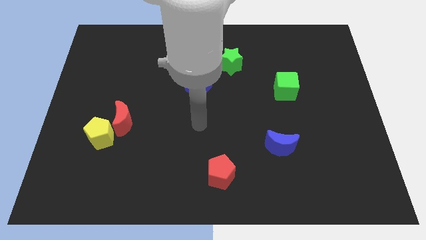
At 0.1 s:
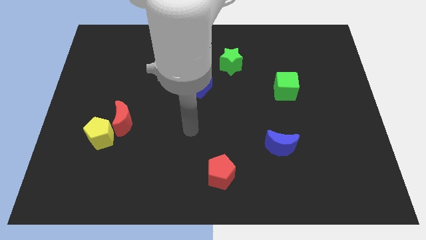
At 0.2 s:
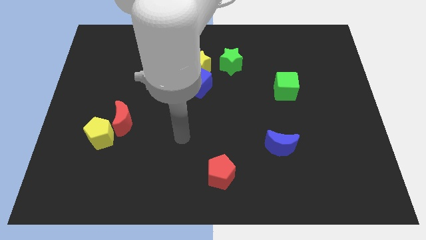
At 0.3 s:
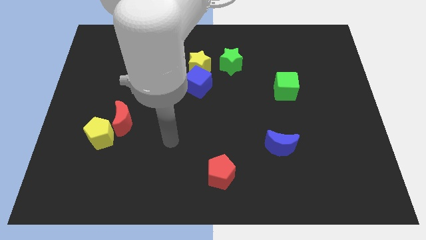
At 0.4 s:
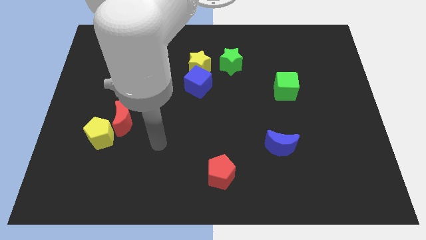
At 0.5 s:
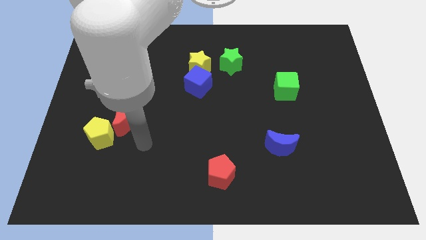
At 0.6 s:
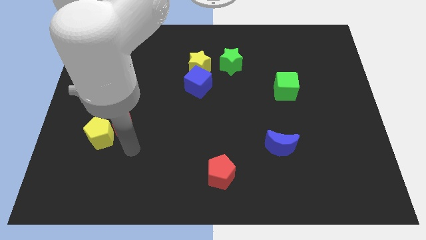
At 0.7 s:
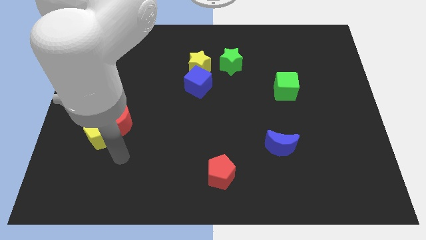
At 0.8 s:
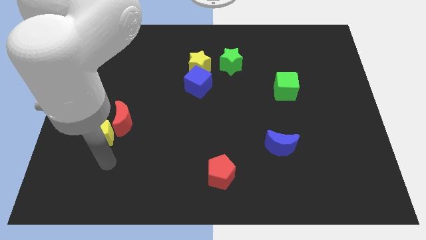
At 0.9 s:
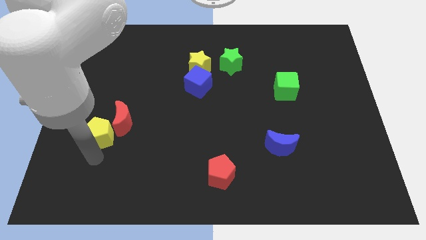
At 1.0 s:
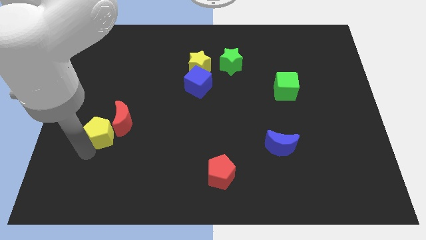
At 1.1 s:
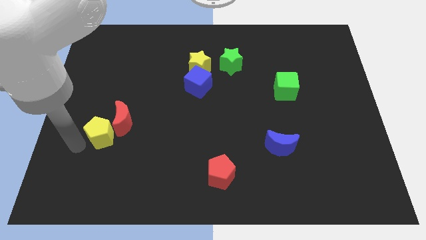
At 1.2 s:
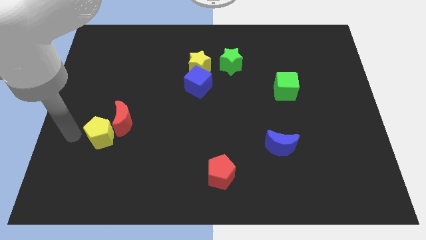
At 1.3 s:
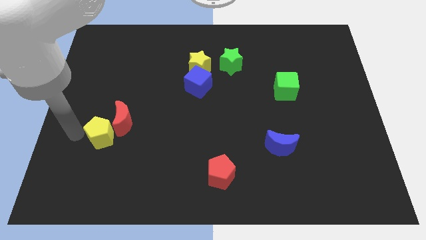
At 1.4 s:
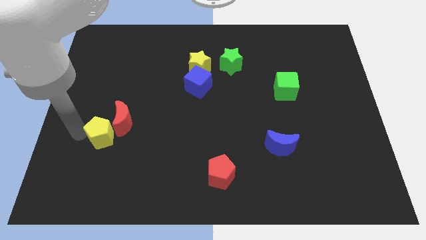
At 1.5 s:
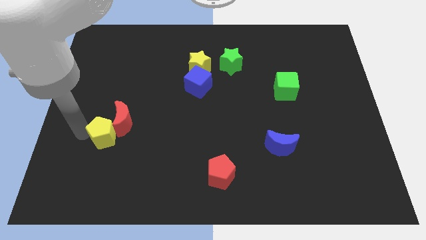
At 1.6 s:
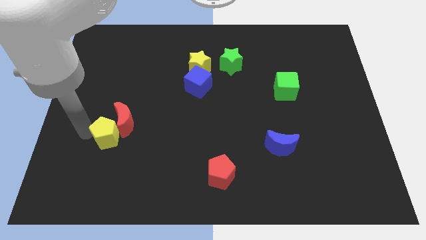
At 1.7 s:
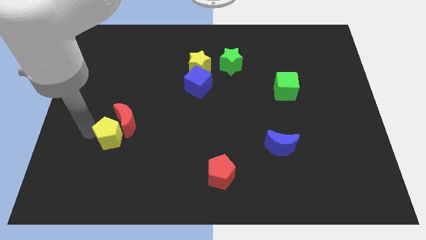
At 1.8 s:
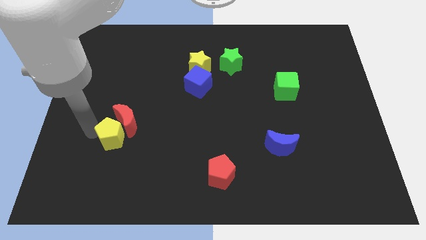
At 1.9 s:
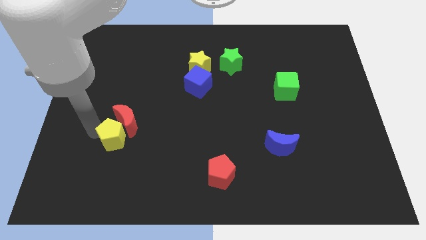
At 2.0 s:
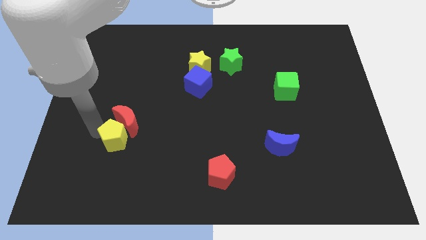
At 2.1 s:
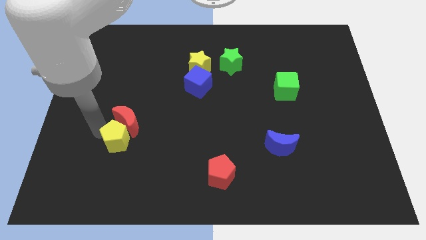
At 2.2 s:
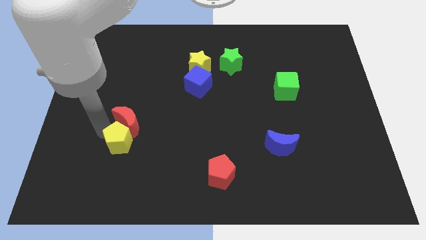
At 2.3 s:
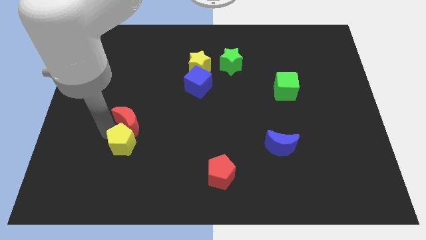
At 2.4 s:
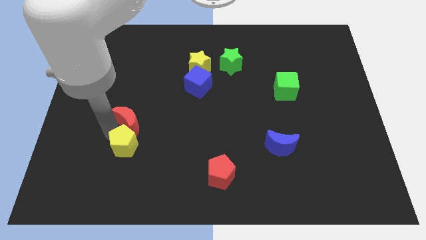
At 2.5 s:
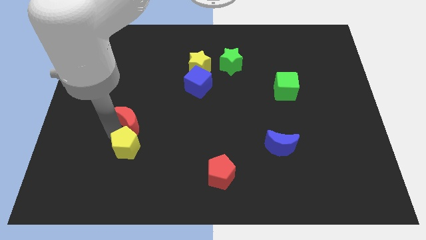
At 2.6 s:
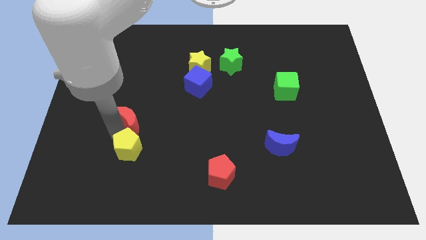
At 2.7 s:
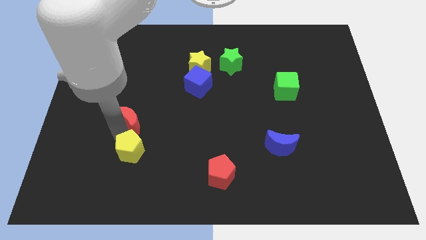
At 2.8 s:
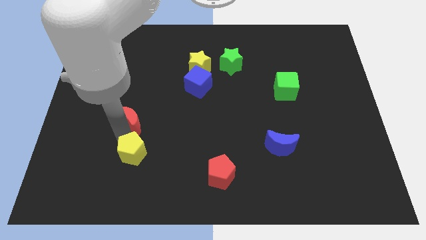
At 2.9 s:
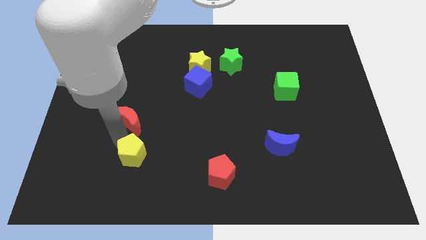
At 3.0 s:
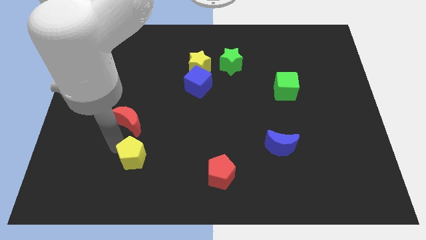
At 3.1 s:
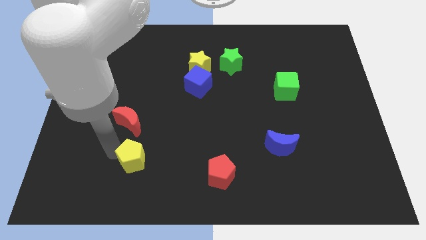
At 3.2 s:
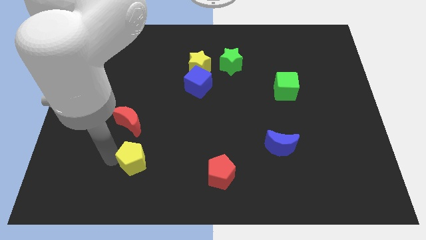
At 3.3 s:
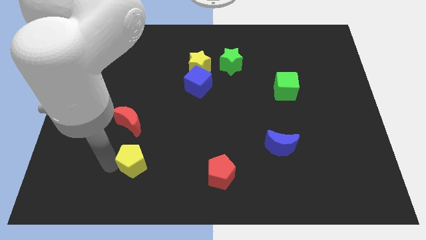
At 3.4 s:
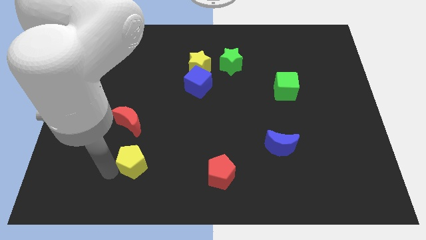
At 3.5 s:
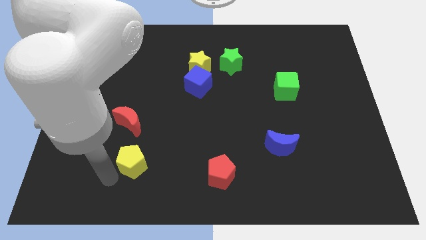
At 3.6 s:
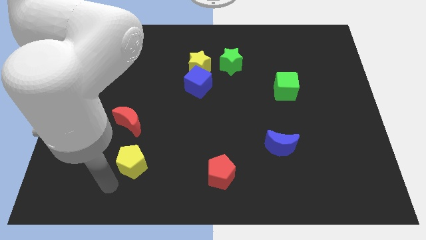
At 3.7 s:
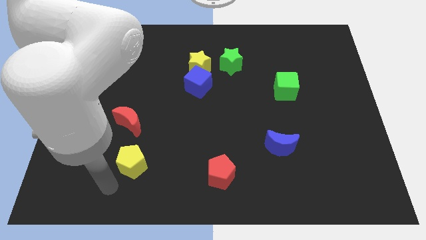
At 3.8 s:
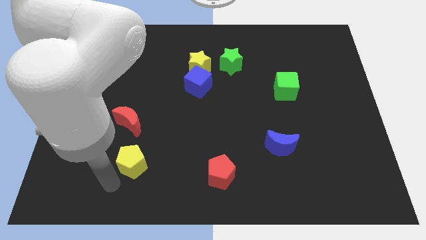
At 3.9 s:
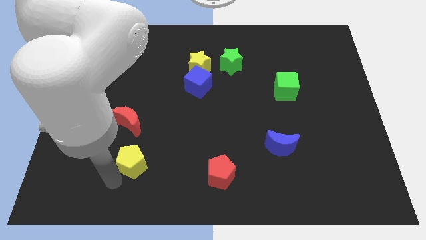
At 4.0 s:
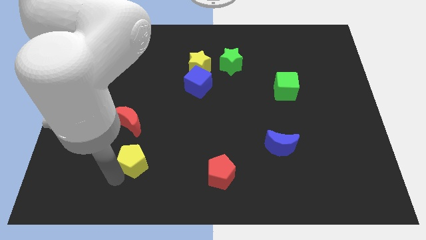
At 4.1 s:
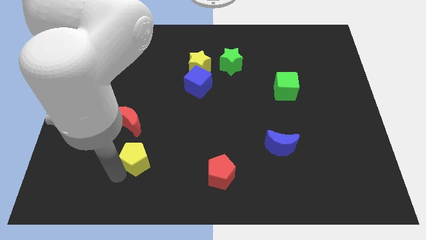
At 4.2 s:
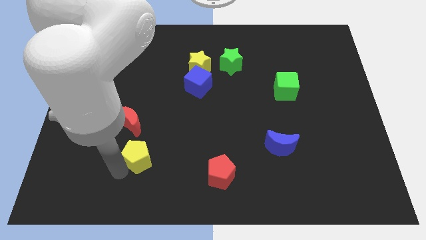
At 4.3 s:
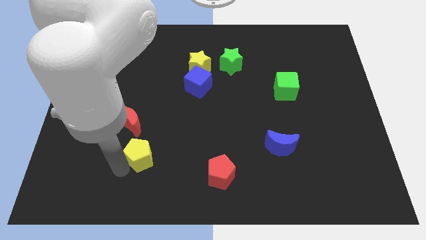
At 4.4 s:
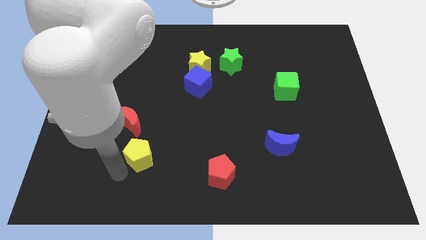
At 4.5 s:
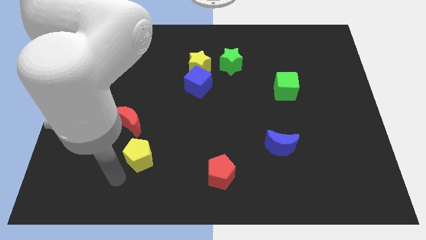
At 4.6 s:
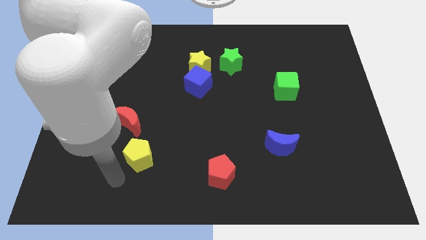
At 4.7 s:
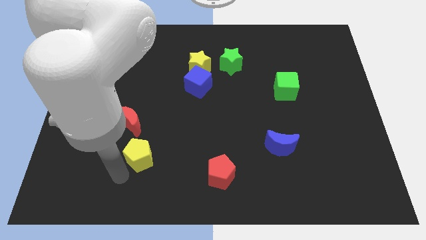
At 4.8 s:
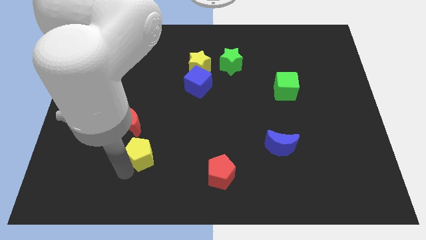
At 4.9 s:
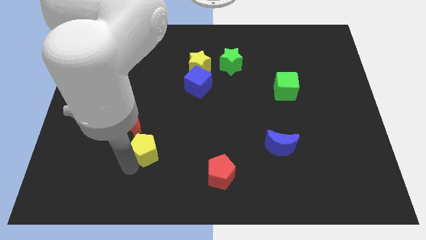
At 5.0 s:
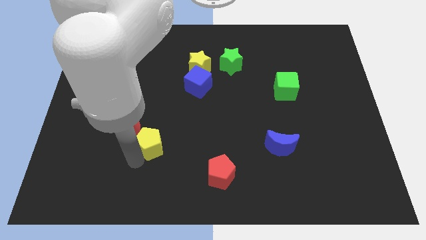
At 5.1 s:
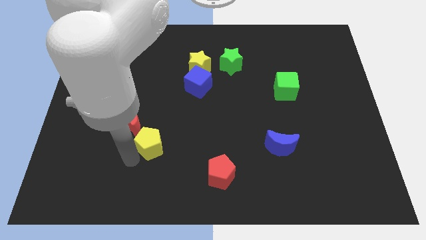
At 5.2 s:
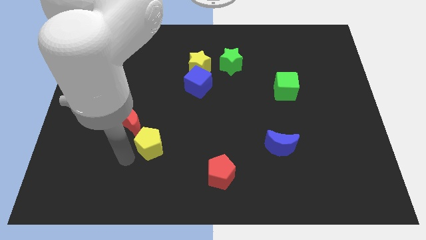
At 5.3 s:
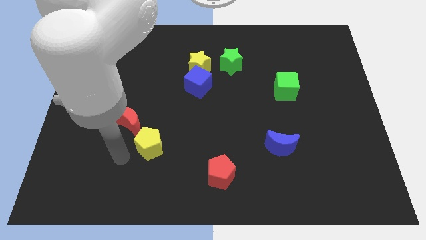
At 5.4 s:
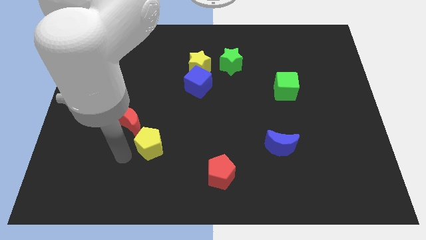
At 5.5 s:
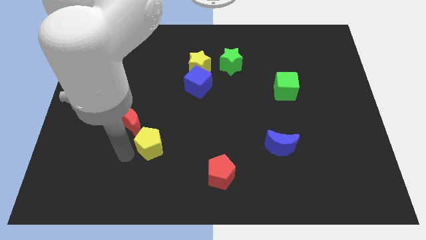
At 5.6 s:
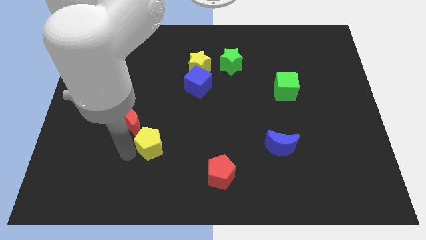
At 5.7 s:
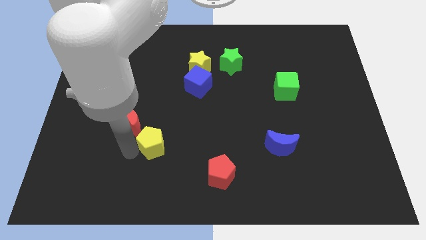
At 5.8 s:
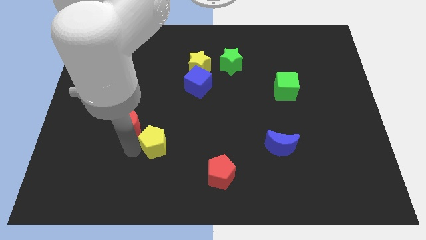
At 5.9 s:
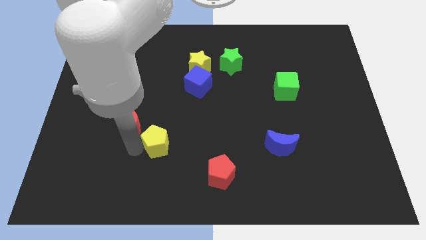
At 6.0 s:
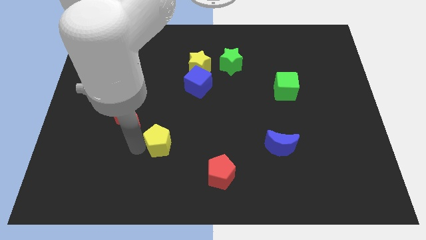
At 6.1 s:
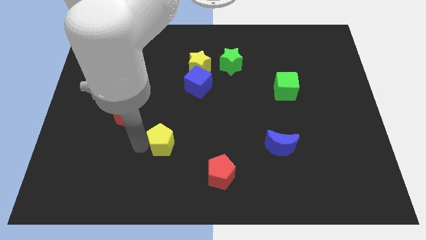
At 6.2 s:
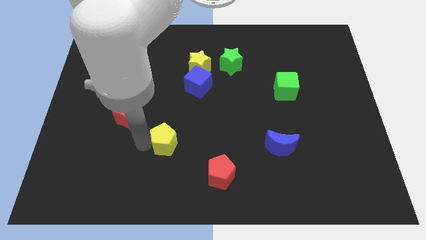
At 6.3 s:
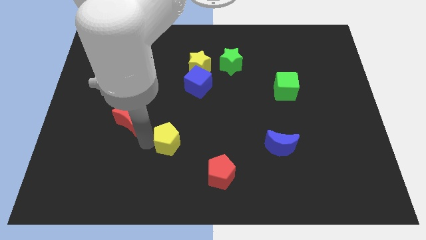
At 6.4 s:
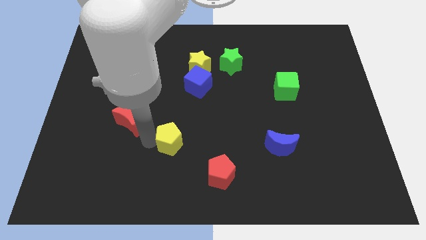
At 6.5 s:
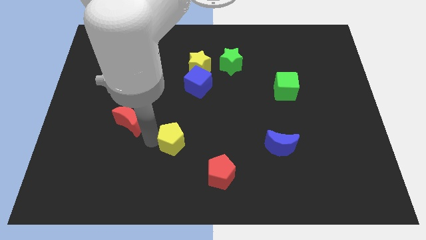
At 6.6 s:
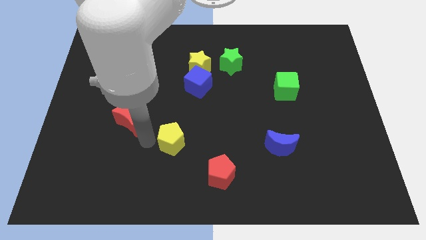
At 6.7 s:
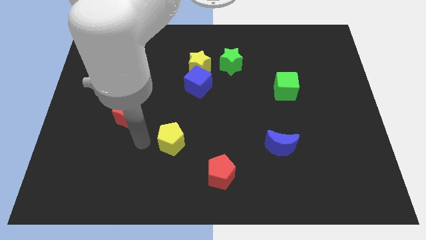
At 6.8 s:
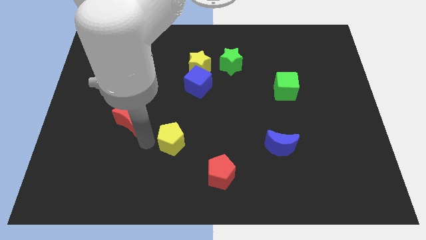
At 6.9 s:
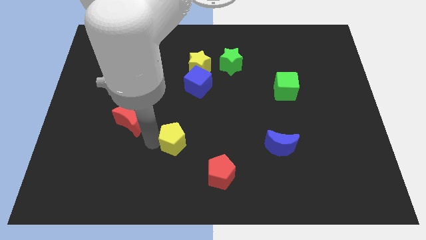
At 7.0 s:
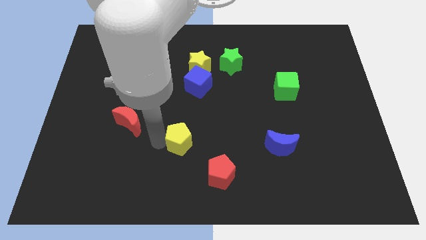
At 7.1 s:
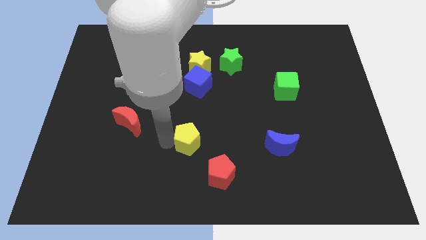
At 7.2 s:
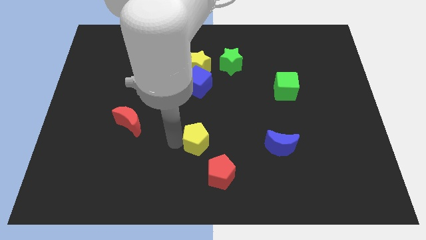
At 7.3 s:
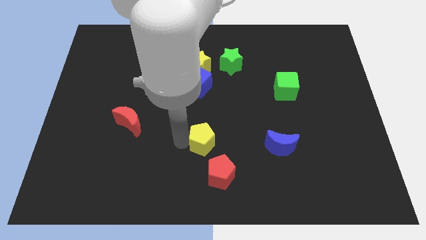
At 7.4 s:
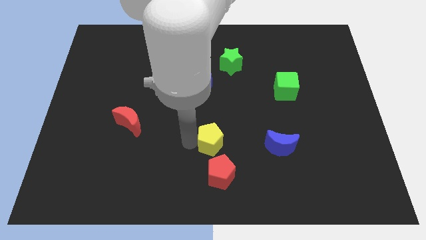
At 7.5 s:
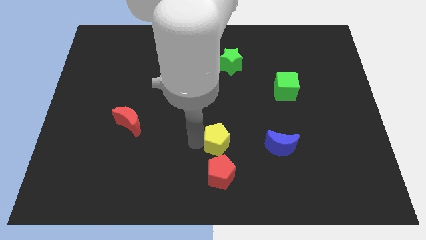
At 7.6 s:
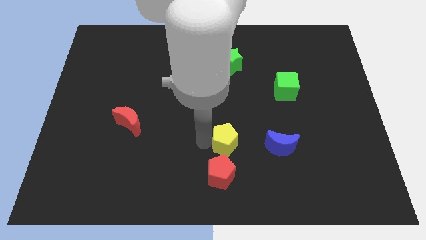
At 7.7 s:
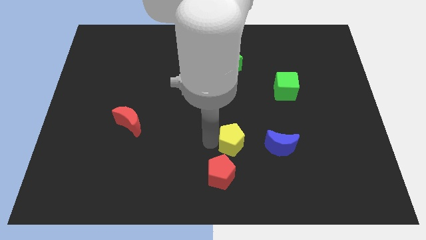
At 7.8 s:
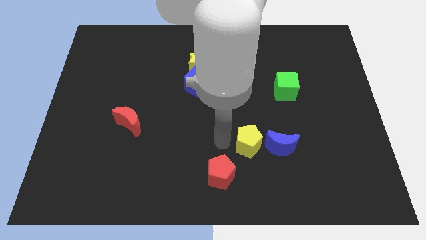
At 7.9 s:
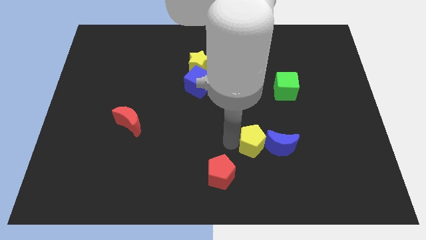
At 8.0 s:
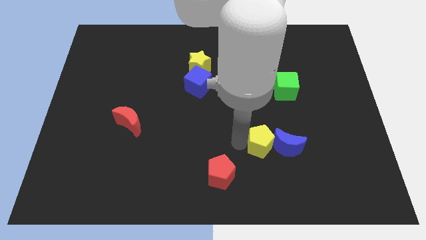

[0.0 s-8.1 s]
put the yellow pentagon towards the blue moon
